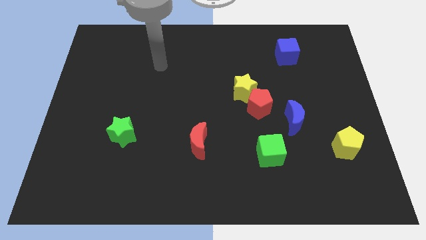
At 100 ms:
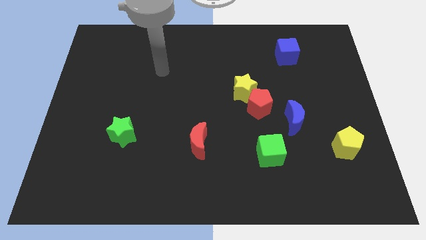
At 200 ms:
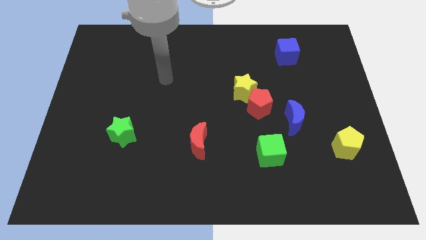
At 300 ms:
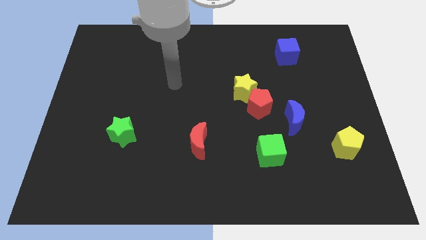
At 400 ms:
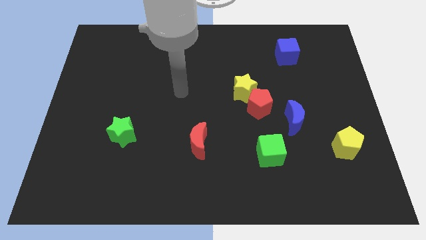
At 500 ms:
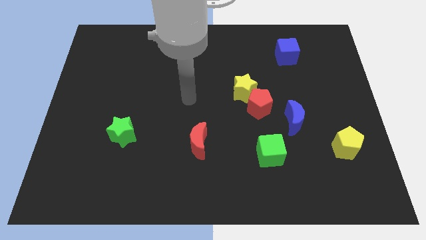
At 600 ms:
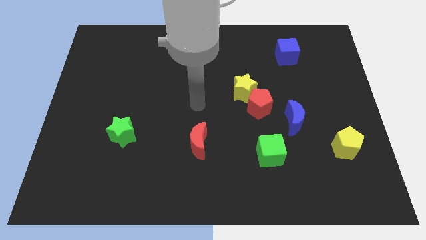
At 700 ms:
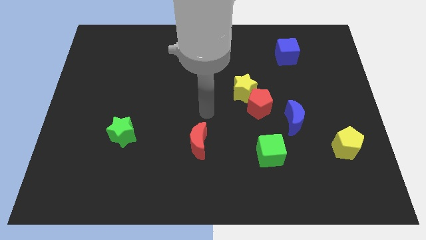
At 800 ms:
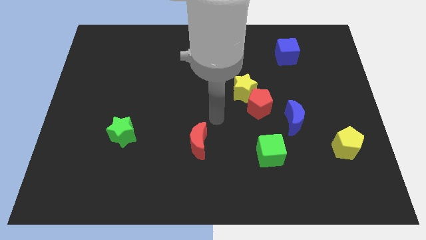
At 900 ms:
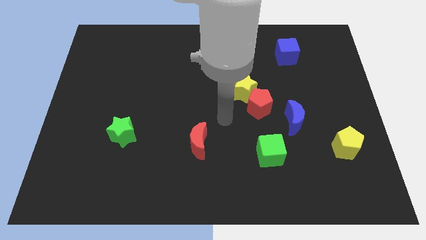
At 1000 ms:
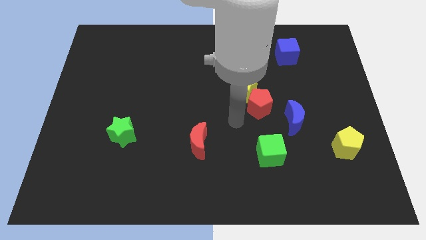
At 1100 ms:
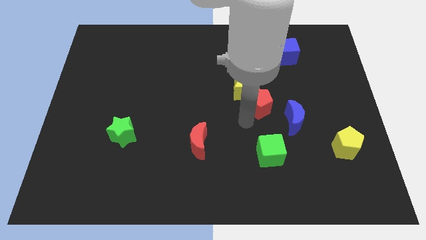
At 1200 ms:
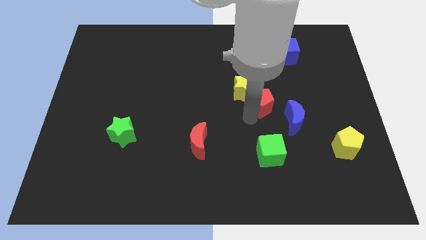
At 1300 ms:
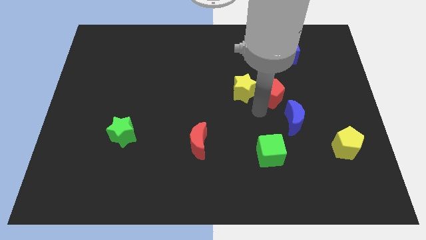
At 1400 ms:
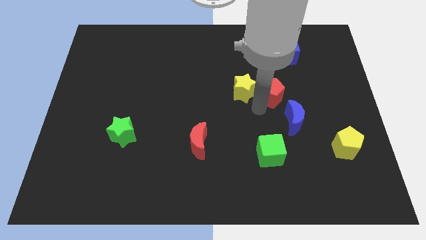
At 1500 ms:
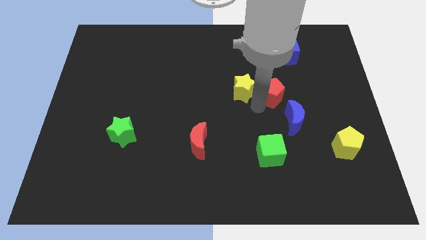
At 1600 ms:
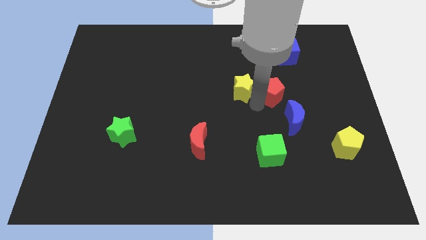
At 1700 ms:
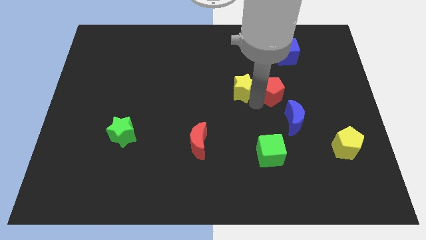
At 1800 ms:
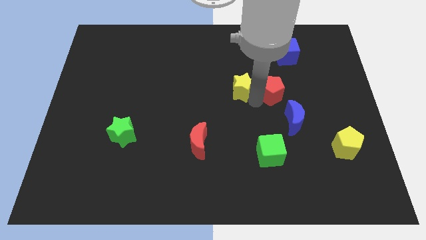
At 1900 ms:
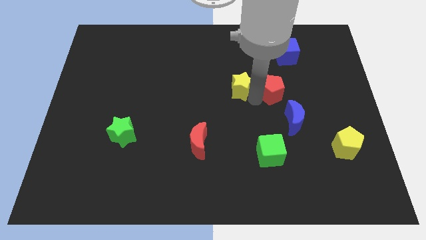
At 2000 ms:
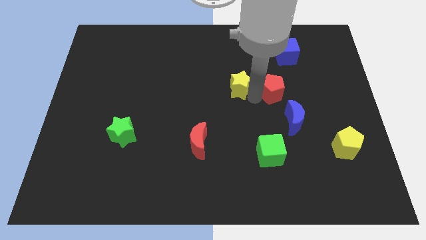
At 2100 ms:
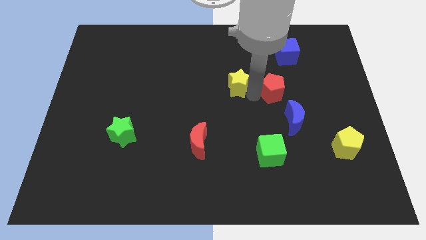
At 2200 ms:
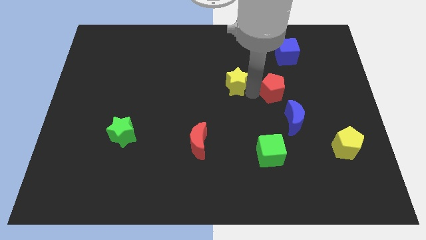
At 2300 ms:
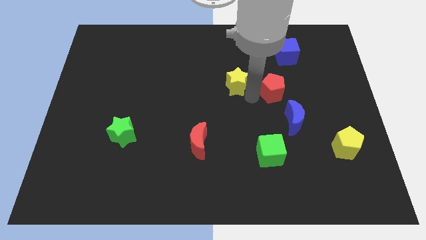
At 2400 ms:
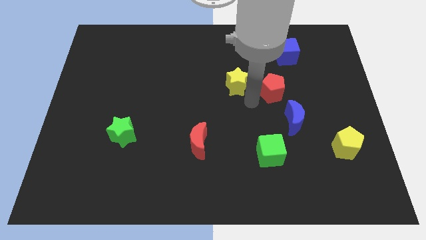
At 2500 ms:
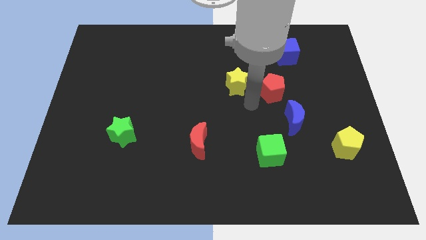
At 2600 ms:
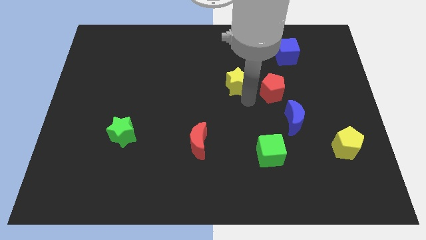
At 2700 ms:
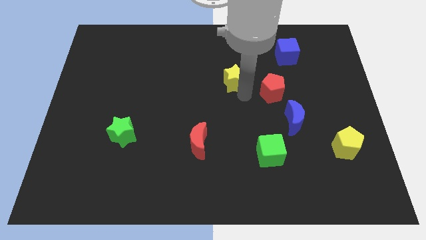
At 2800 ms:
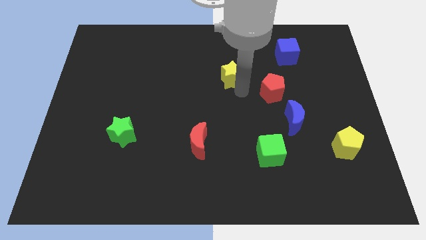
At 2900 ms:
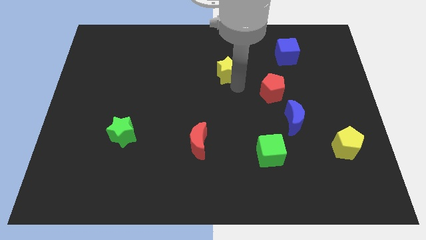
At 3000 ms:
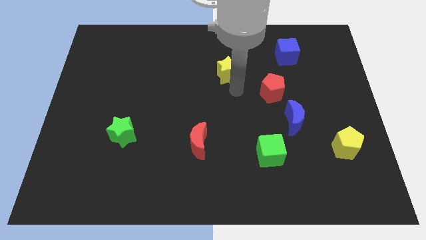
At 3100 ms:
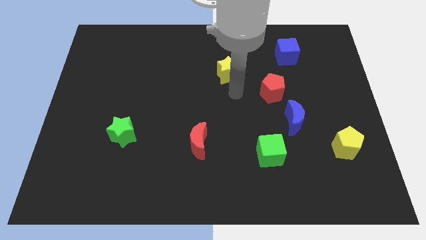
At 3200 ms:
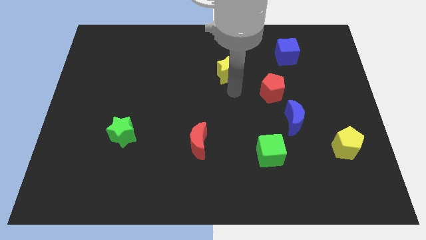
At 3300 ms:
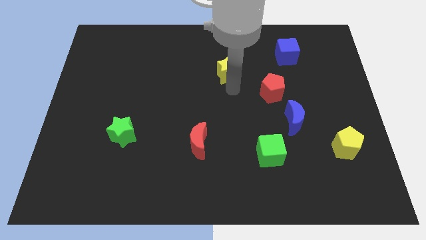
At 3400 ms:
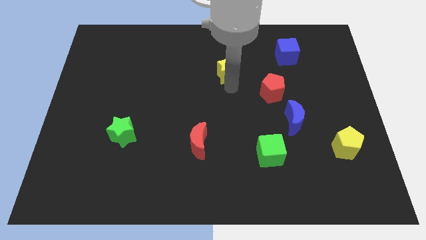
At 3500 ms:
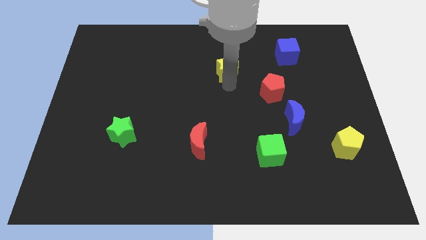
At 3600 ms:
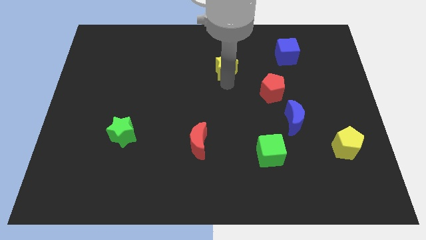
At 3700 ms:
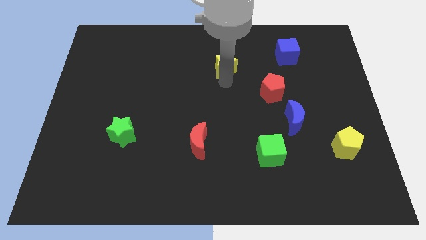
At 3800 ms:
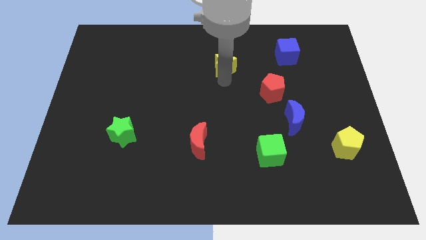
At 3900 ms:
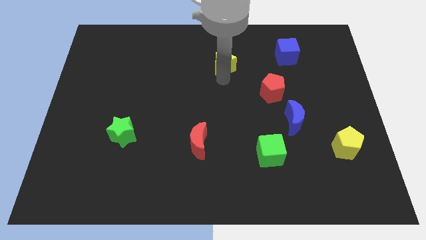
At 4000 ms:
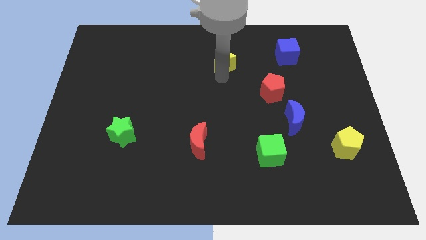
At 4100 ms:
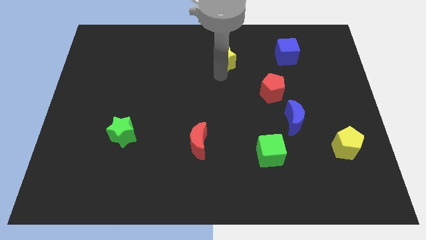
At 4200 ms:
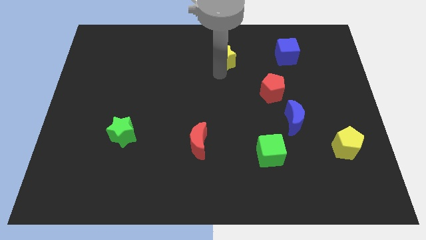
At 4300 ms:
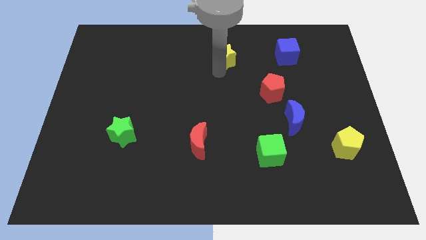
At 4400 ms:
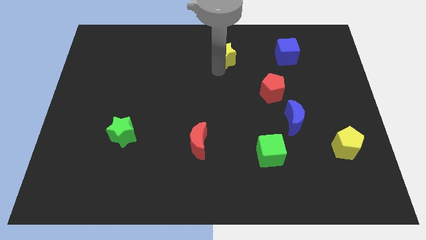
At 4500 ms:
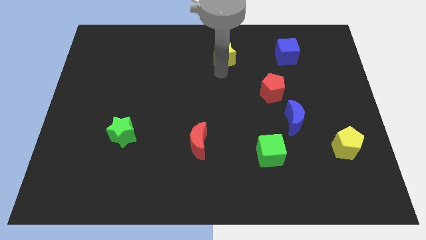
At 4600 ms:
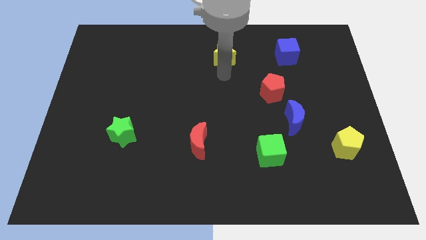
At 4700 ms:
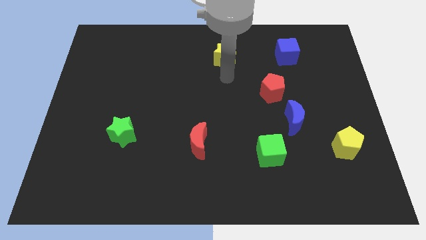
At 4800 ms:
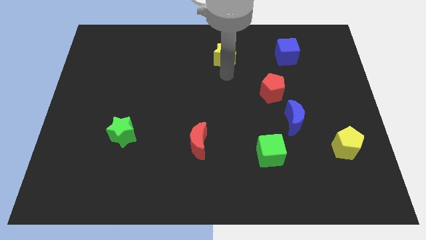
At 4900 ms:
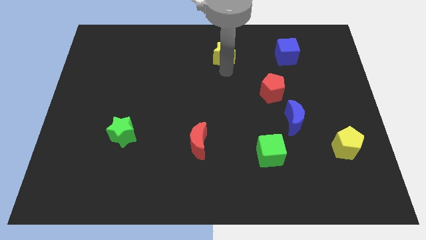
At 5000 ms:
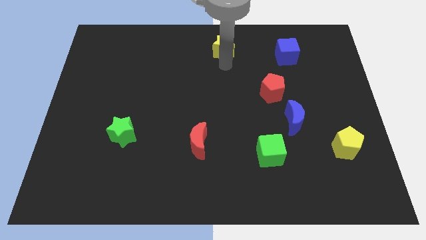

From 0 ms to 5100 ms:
put the yellow star to the top side

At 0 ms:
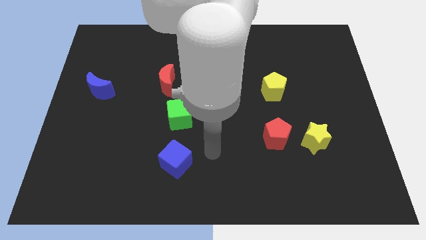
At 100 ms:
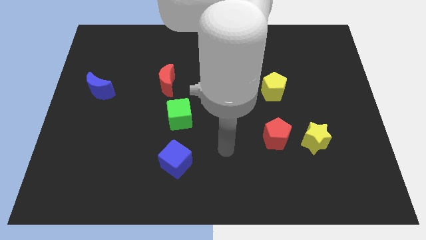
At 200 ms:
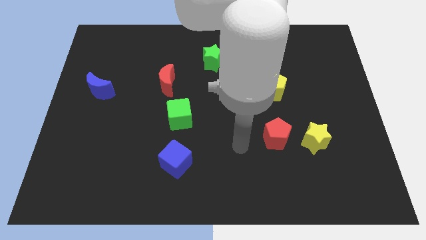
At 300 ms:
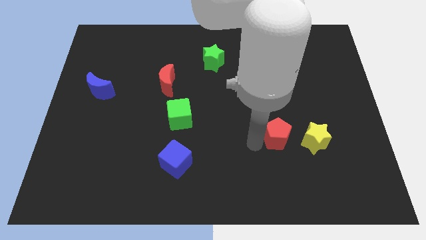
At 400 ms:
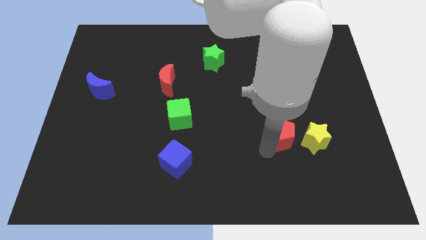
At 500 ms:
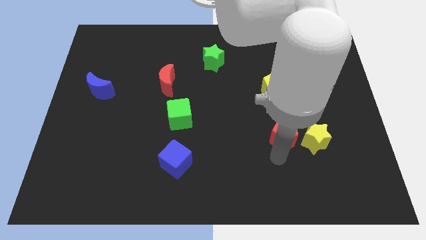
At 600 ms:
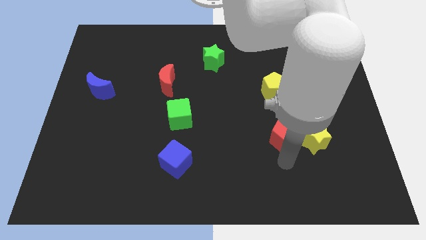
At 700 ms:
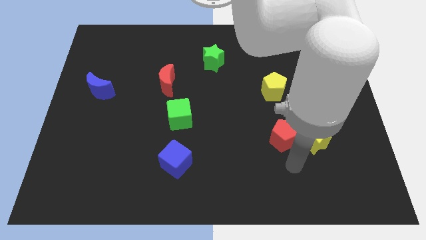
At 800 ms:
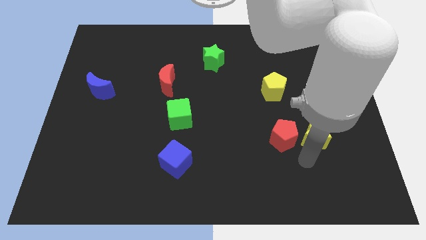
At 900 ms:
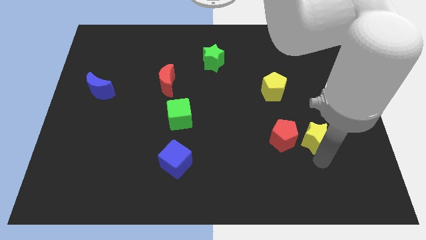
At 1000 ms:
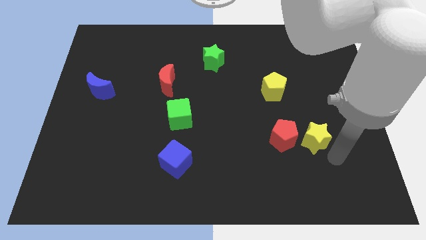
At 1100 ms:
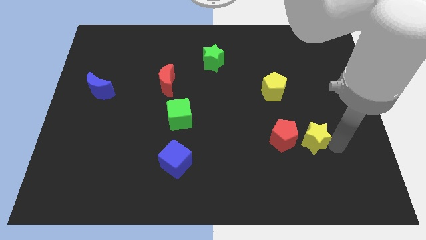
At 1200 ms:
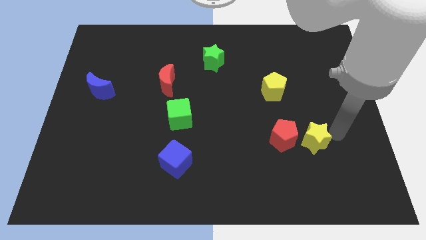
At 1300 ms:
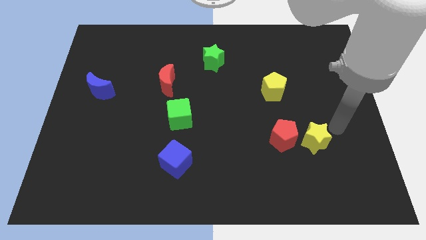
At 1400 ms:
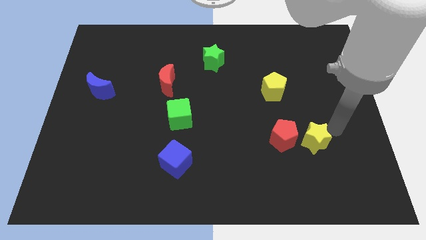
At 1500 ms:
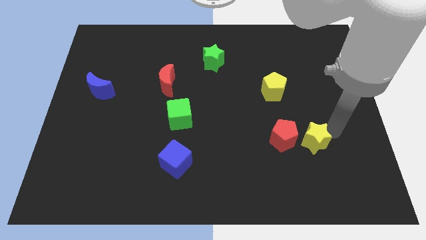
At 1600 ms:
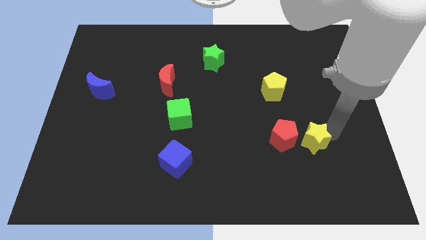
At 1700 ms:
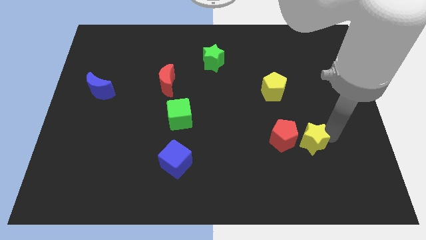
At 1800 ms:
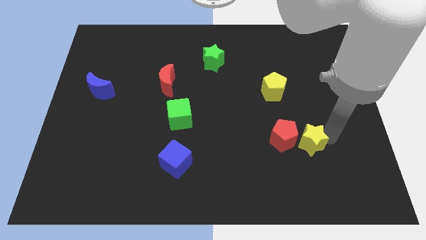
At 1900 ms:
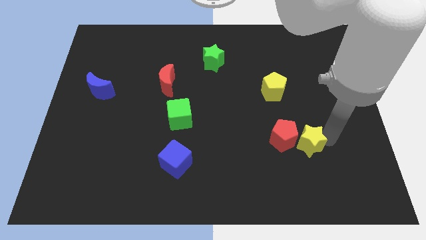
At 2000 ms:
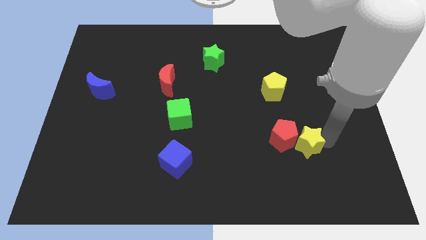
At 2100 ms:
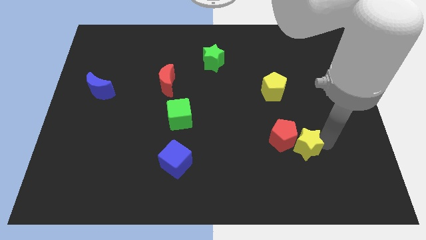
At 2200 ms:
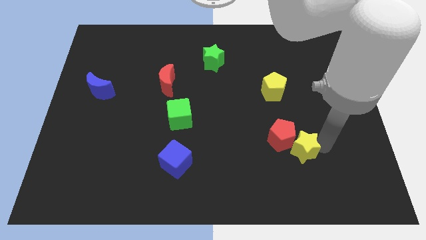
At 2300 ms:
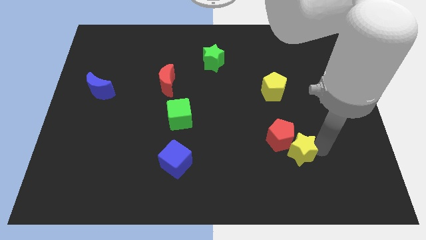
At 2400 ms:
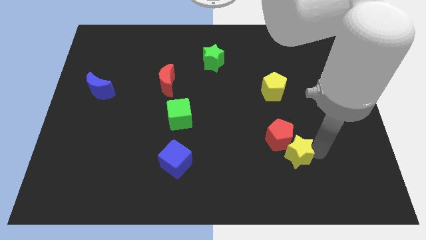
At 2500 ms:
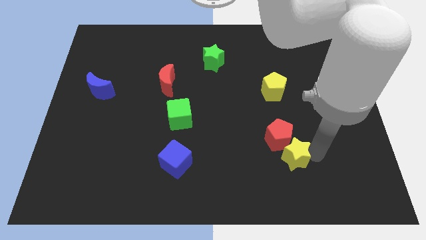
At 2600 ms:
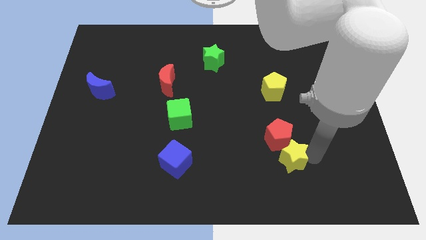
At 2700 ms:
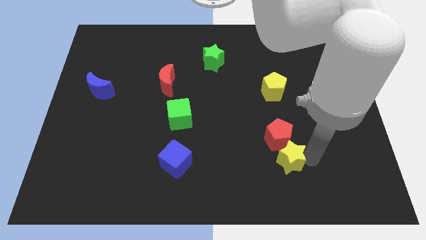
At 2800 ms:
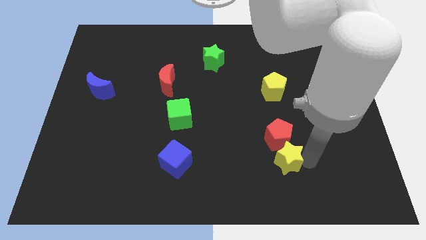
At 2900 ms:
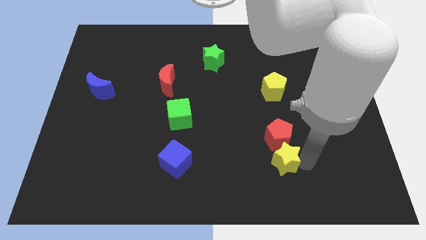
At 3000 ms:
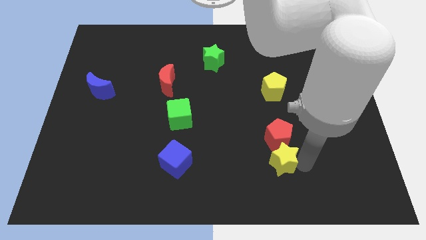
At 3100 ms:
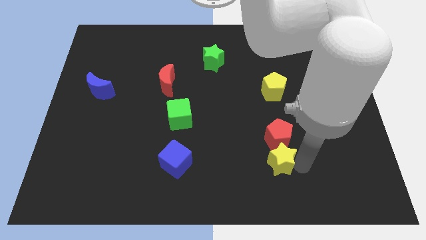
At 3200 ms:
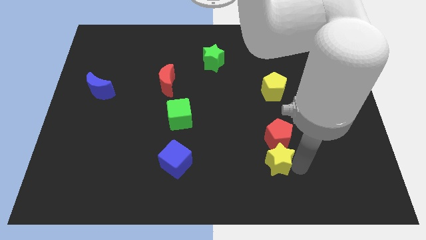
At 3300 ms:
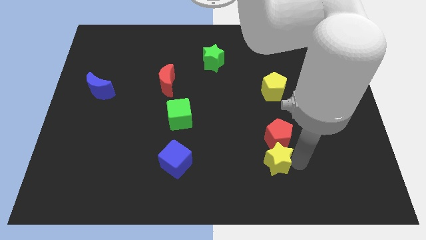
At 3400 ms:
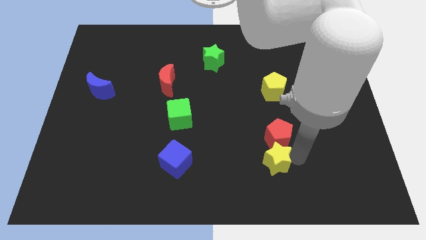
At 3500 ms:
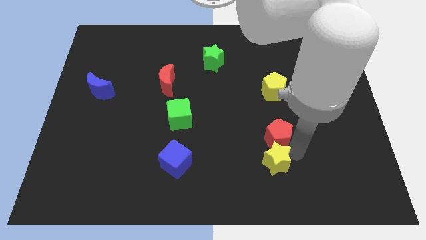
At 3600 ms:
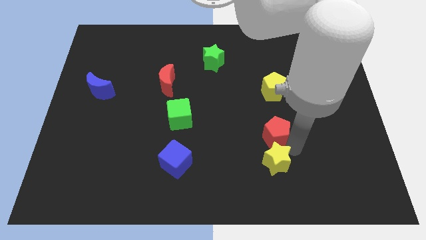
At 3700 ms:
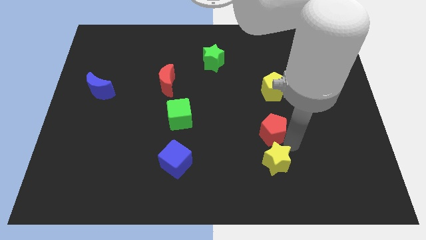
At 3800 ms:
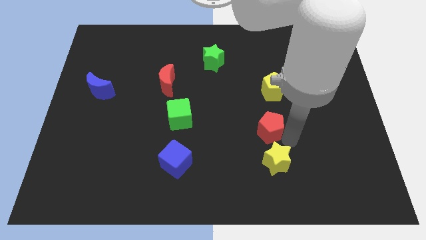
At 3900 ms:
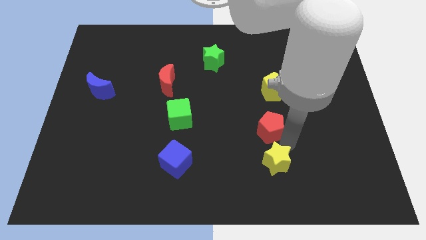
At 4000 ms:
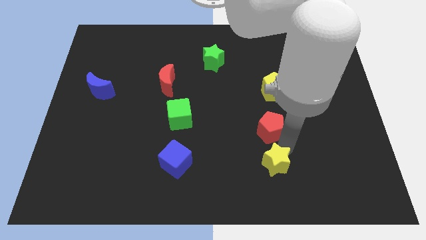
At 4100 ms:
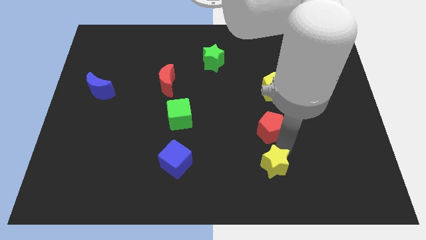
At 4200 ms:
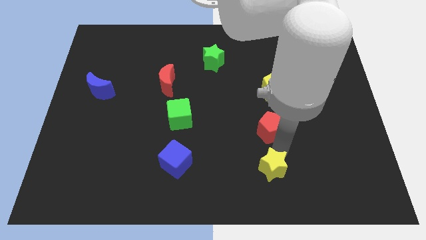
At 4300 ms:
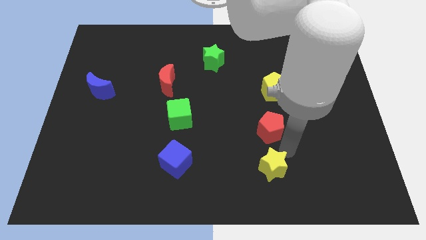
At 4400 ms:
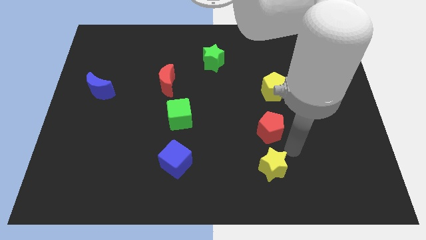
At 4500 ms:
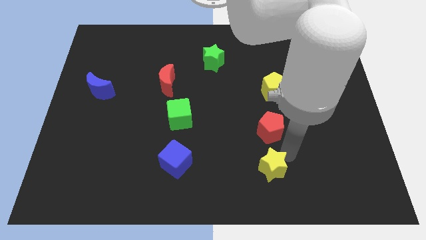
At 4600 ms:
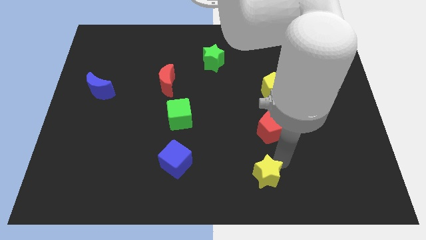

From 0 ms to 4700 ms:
move the yellow star to the bottom
